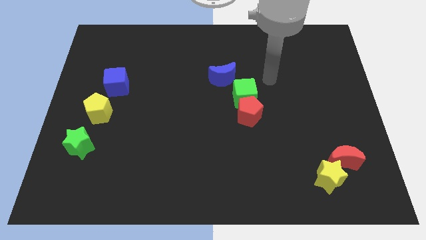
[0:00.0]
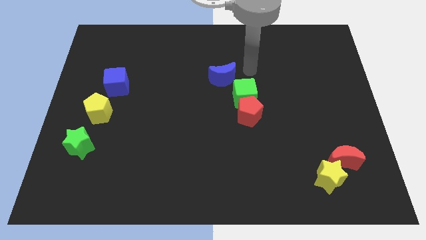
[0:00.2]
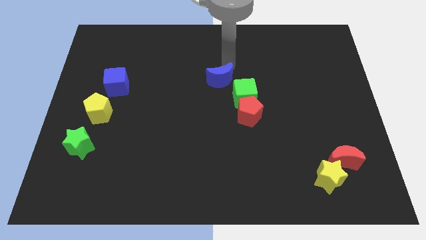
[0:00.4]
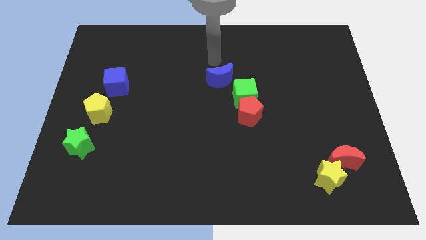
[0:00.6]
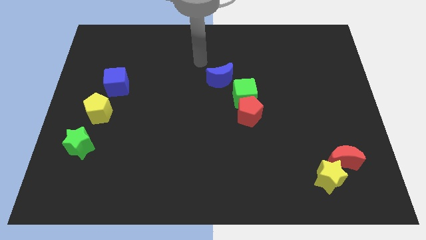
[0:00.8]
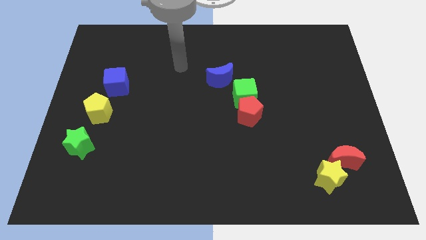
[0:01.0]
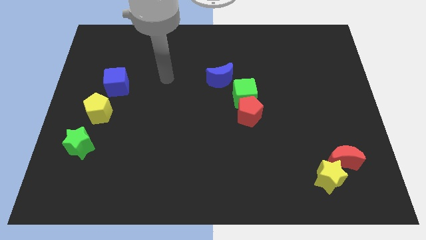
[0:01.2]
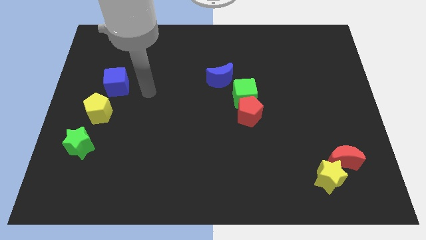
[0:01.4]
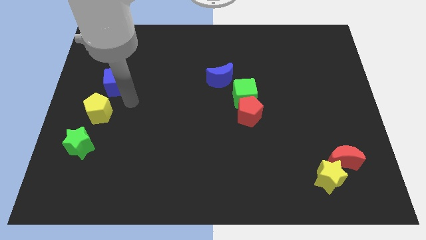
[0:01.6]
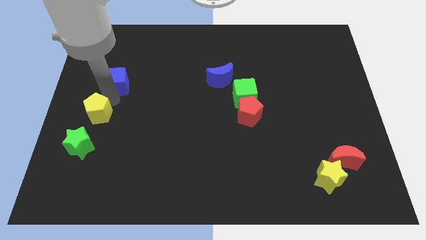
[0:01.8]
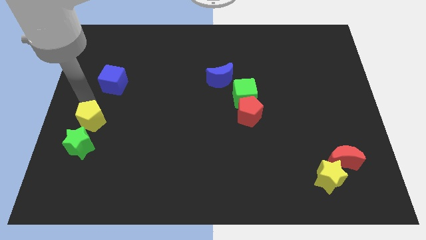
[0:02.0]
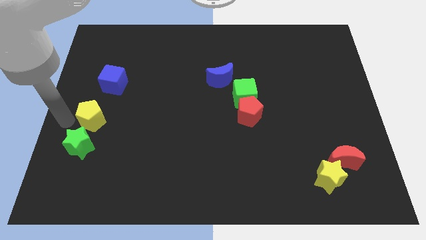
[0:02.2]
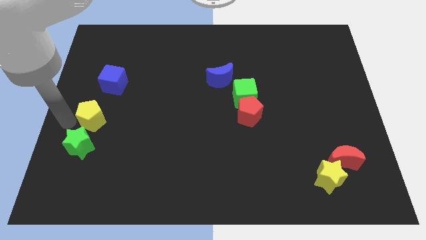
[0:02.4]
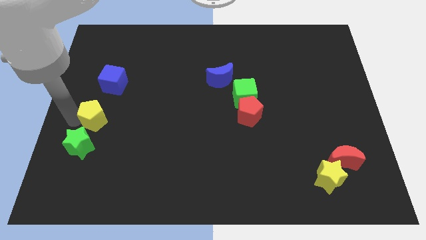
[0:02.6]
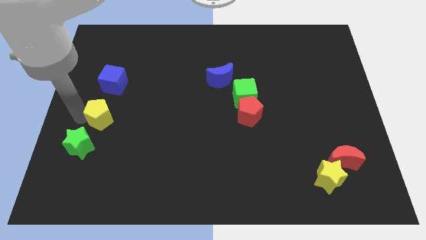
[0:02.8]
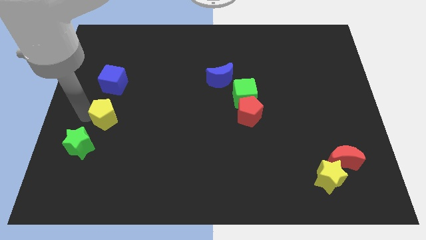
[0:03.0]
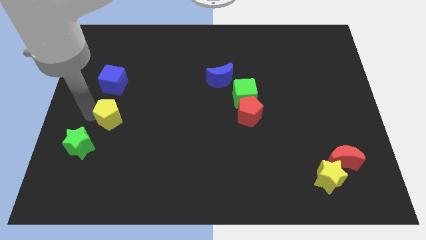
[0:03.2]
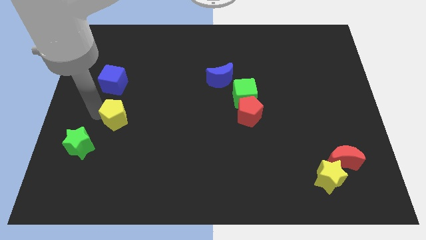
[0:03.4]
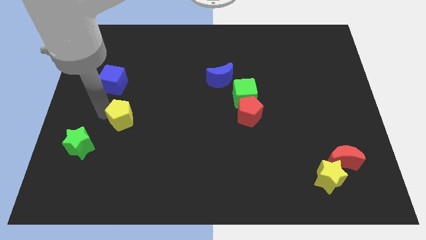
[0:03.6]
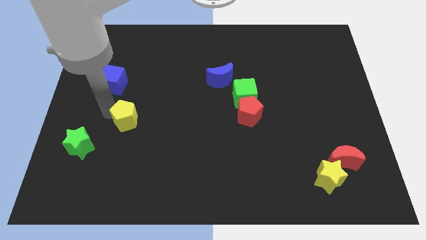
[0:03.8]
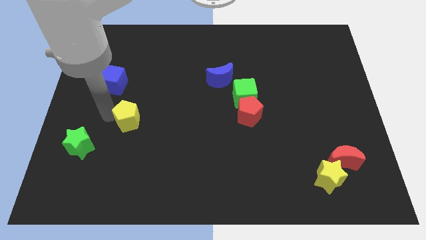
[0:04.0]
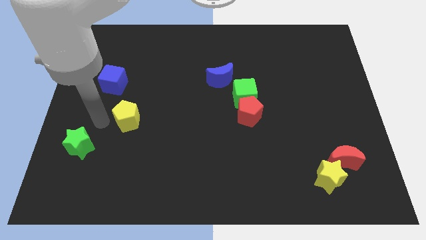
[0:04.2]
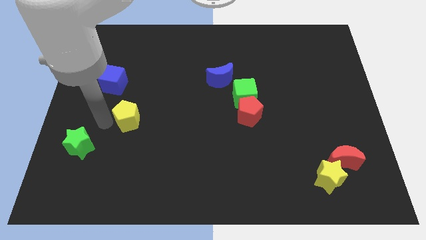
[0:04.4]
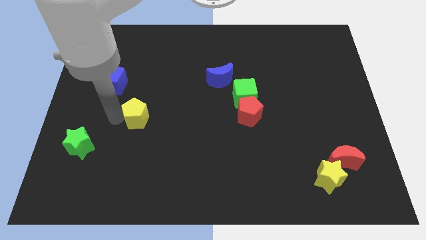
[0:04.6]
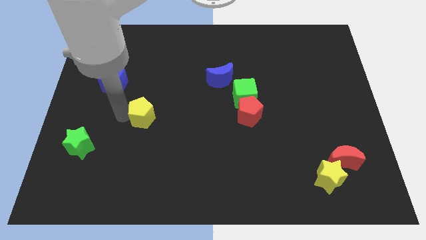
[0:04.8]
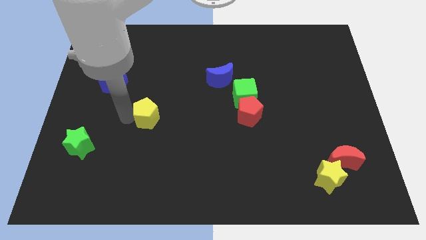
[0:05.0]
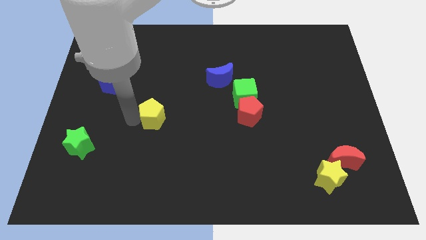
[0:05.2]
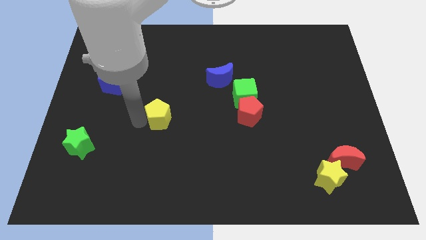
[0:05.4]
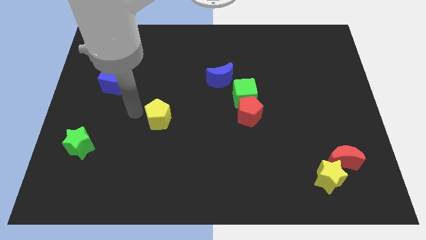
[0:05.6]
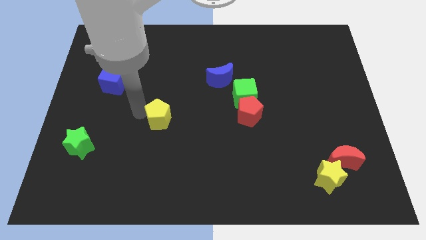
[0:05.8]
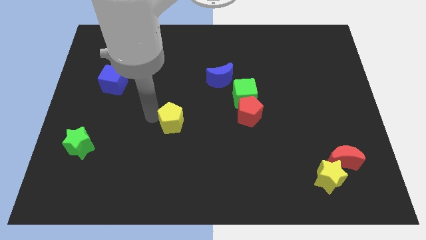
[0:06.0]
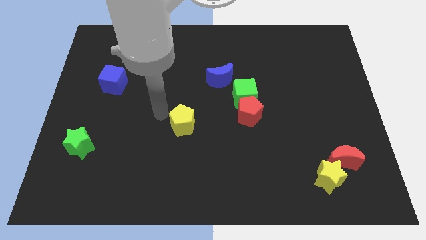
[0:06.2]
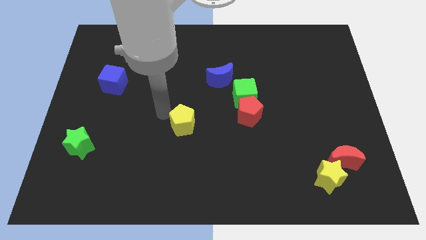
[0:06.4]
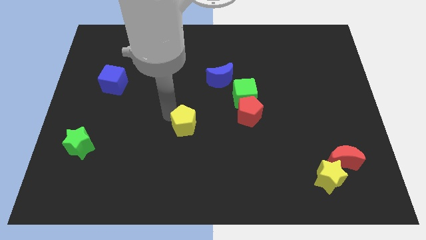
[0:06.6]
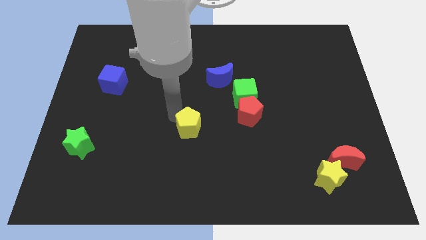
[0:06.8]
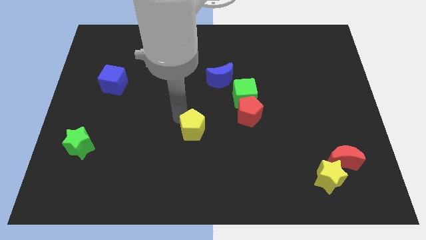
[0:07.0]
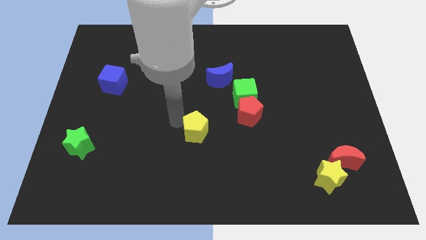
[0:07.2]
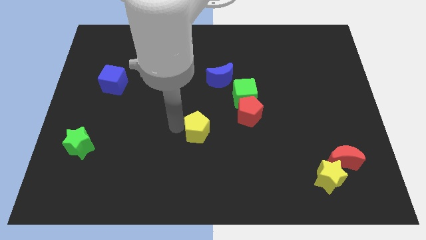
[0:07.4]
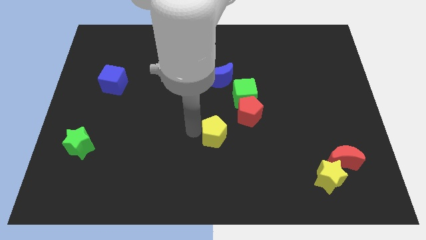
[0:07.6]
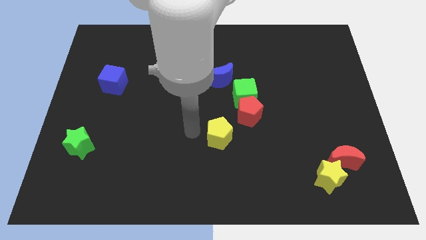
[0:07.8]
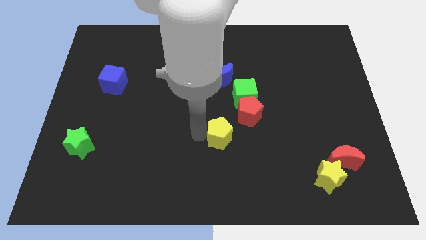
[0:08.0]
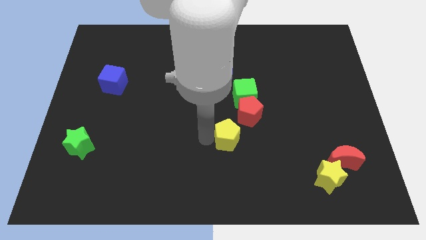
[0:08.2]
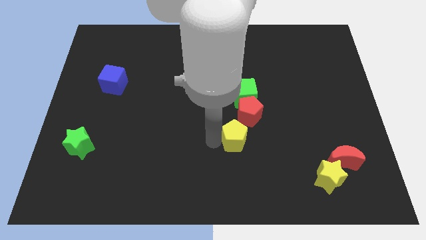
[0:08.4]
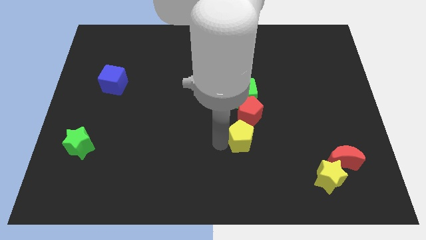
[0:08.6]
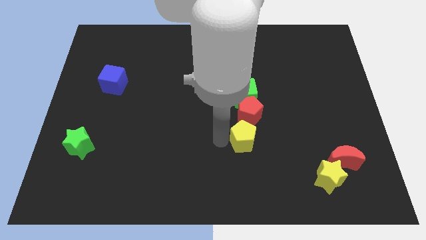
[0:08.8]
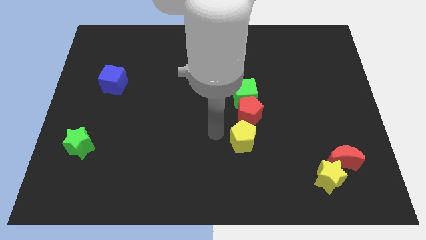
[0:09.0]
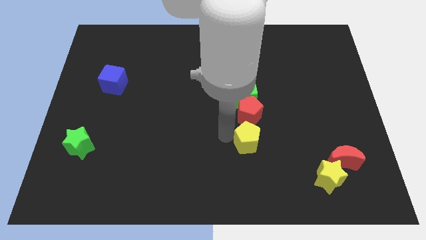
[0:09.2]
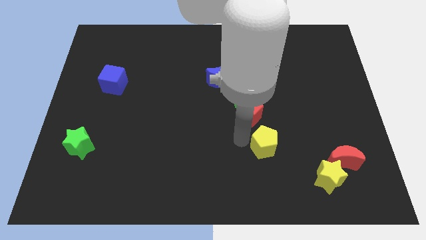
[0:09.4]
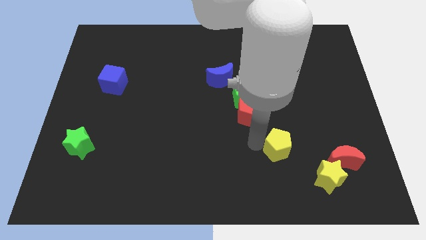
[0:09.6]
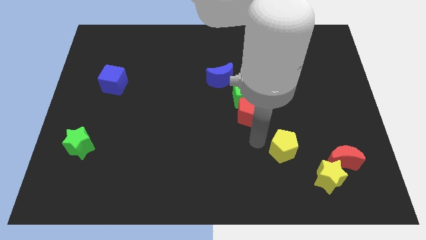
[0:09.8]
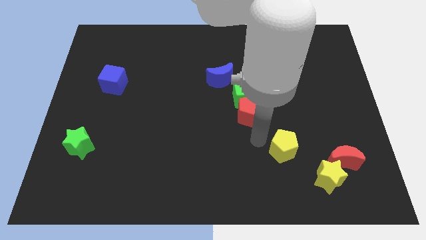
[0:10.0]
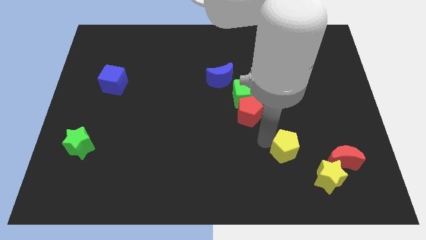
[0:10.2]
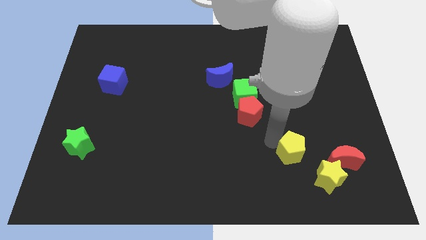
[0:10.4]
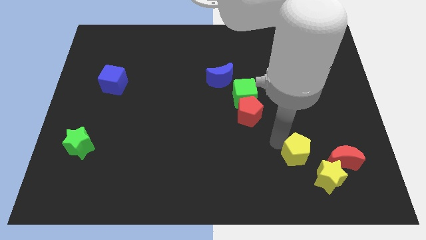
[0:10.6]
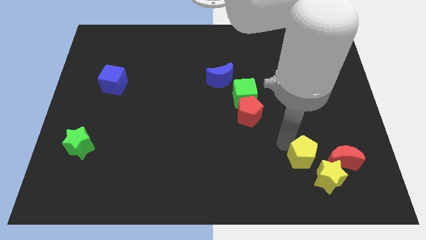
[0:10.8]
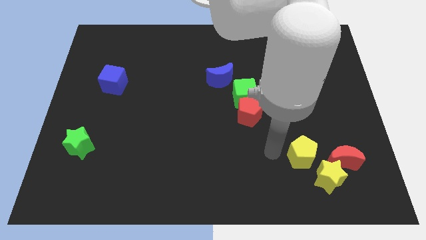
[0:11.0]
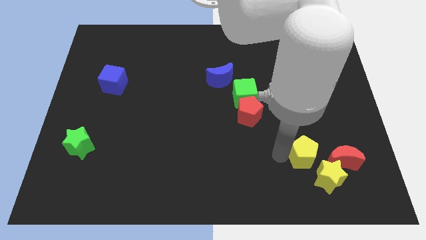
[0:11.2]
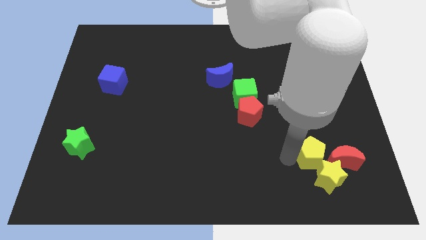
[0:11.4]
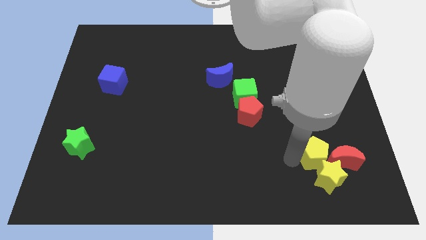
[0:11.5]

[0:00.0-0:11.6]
put the yellow pentagon to the red moon

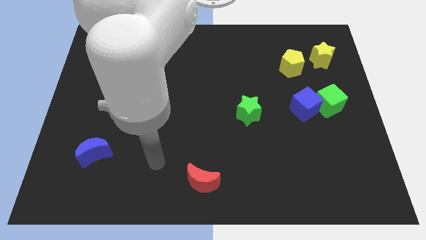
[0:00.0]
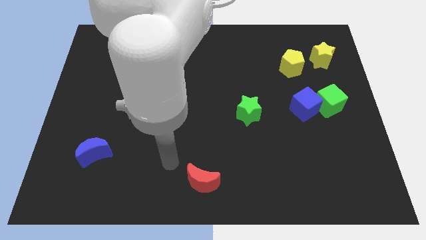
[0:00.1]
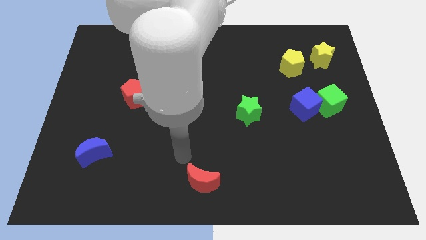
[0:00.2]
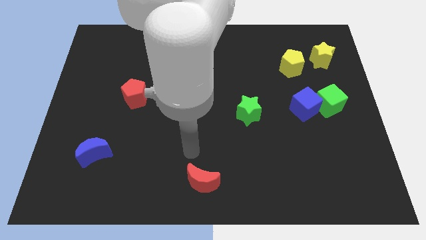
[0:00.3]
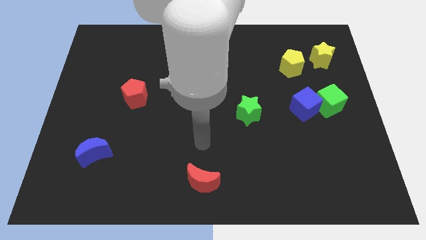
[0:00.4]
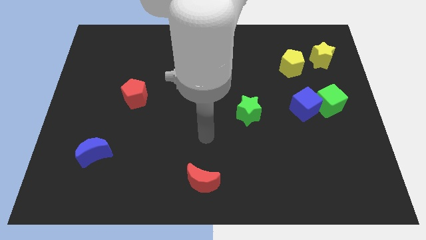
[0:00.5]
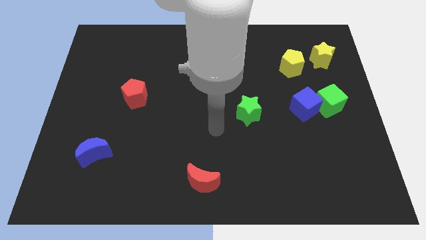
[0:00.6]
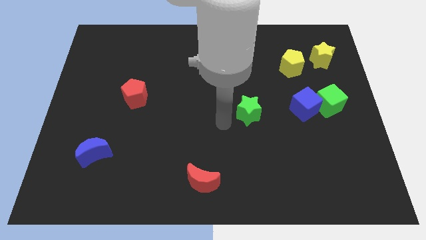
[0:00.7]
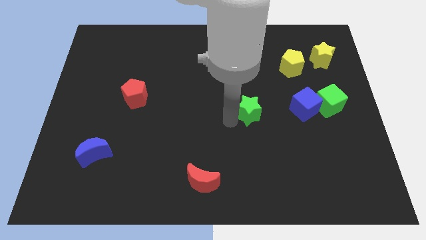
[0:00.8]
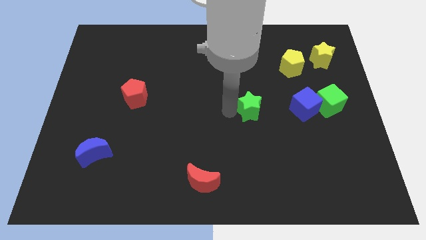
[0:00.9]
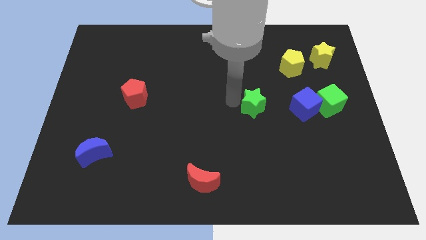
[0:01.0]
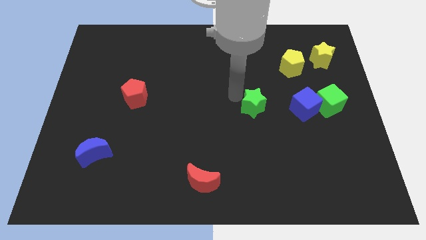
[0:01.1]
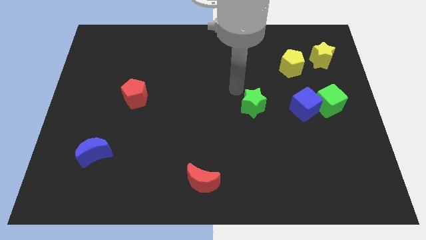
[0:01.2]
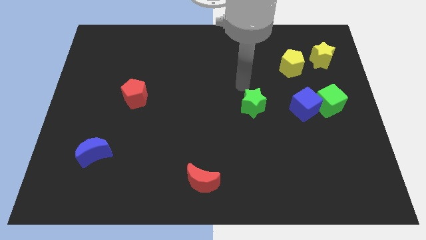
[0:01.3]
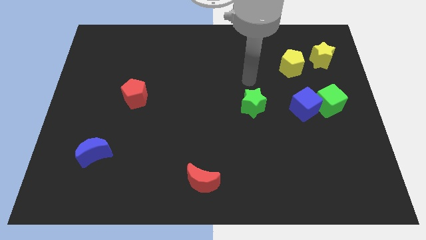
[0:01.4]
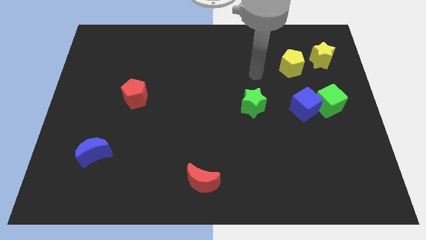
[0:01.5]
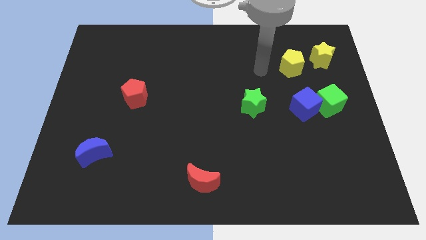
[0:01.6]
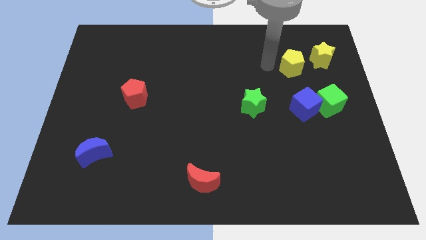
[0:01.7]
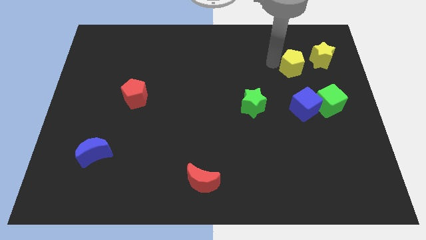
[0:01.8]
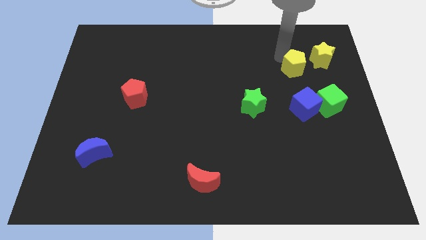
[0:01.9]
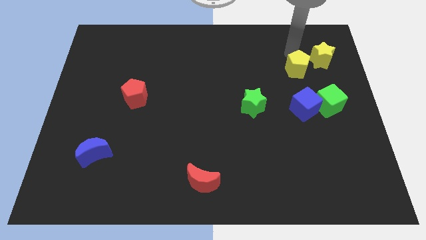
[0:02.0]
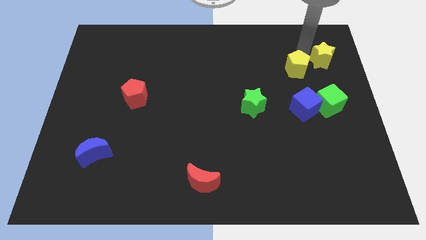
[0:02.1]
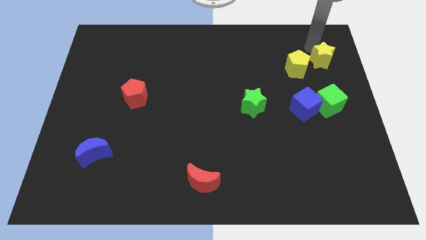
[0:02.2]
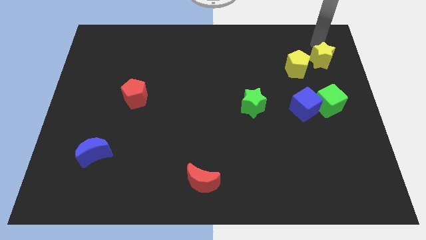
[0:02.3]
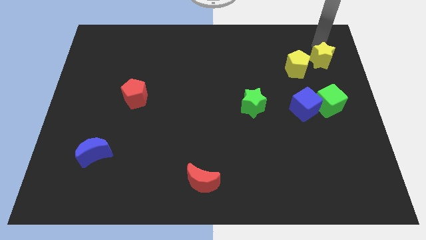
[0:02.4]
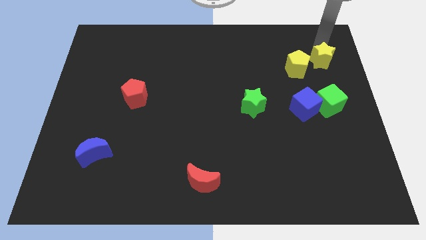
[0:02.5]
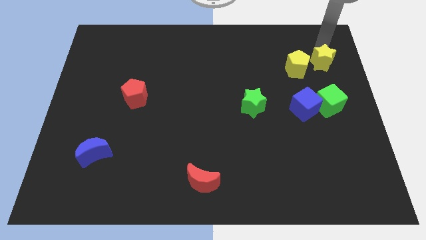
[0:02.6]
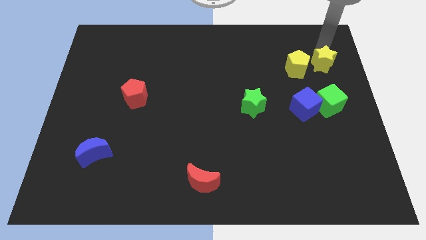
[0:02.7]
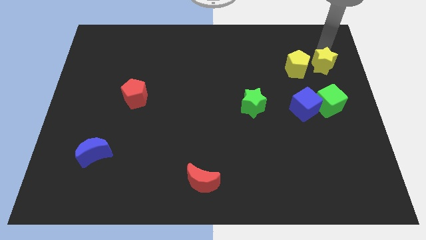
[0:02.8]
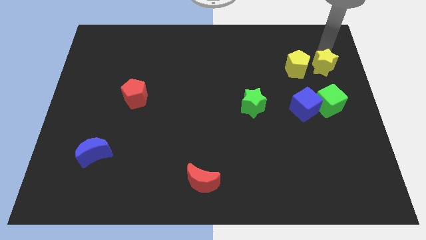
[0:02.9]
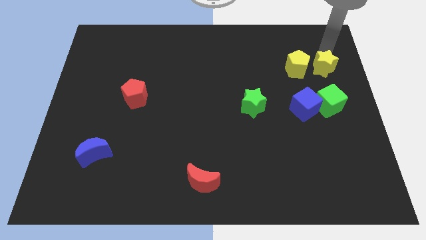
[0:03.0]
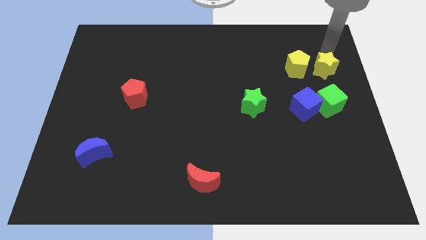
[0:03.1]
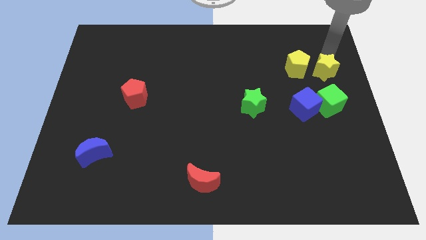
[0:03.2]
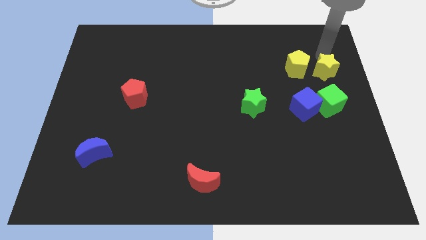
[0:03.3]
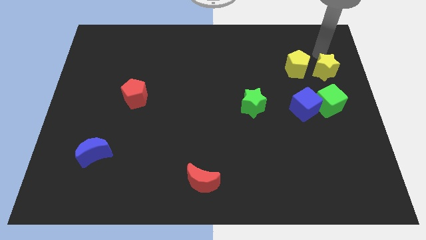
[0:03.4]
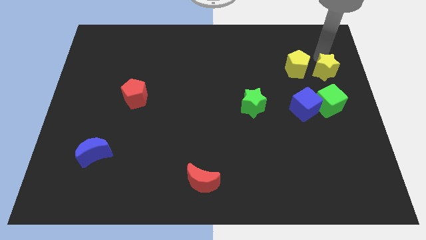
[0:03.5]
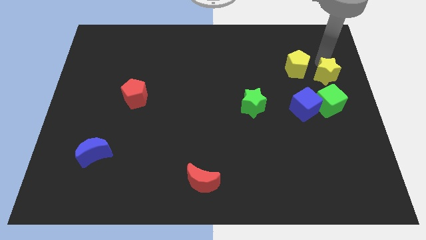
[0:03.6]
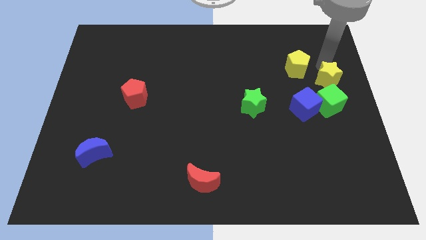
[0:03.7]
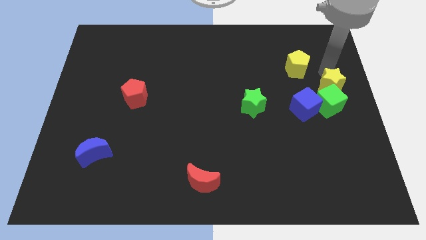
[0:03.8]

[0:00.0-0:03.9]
push the yellow star close to the green cube
